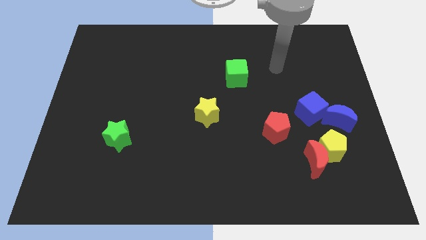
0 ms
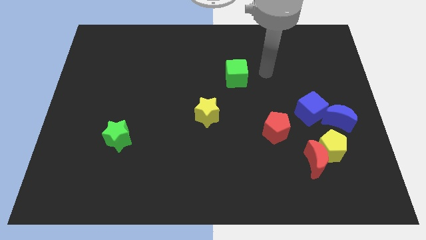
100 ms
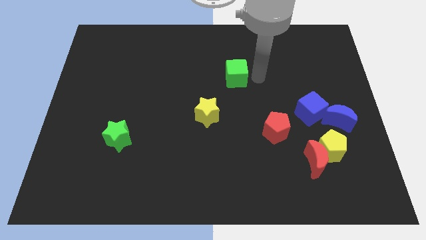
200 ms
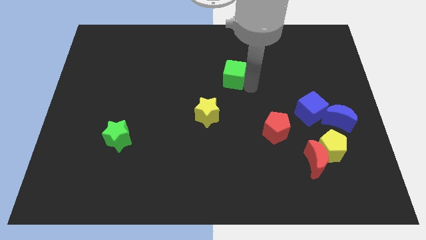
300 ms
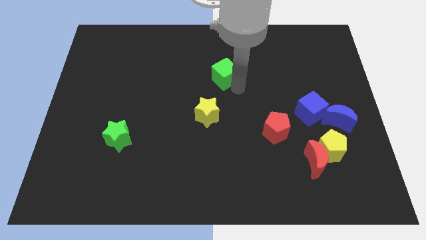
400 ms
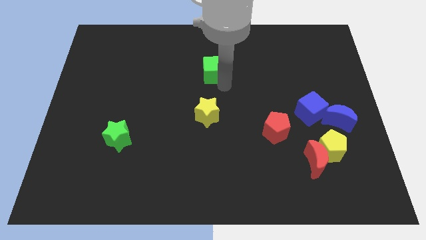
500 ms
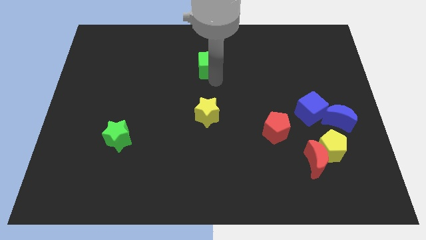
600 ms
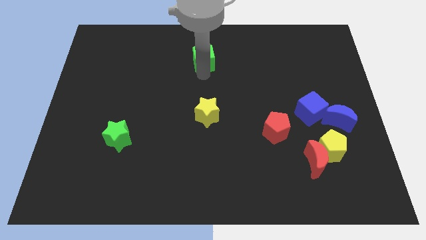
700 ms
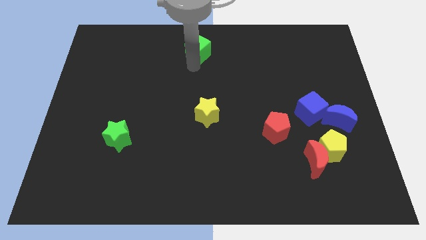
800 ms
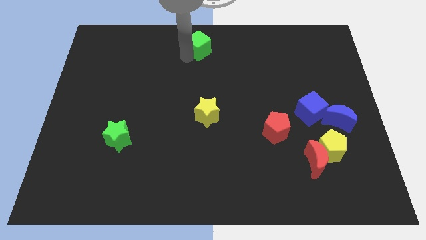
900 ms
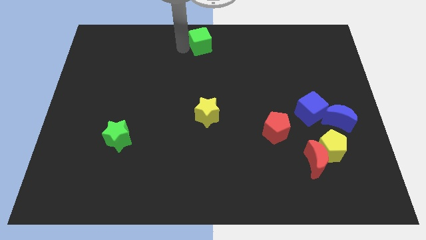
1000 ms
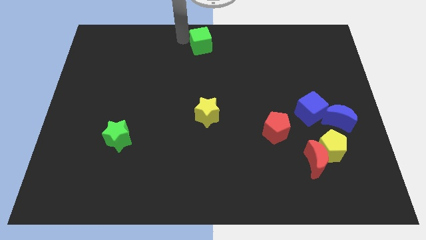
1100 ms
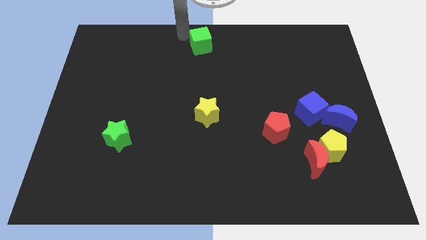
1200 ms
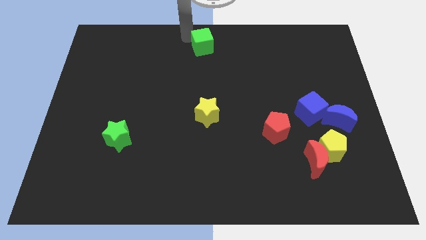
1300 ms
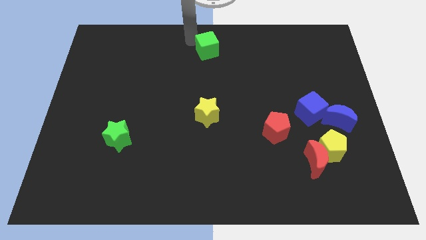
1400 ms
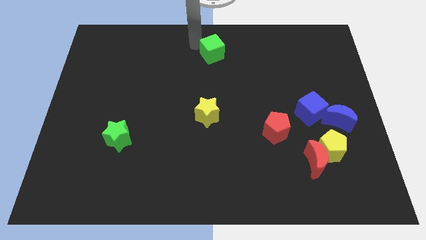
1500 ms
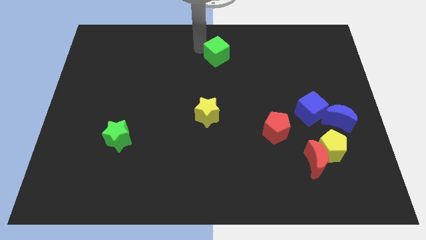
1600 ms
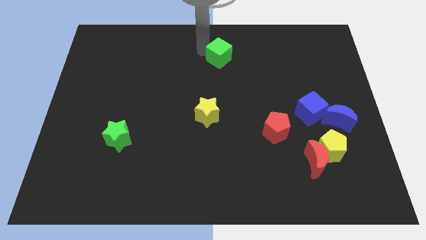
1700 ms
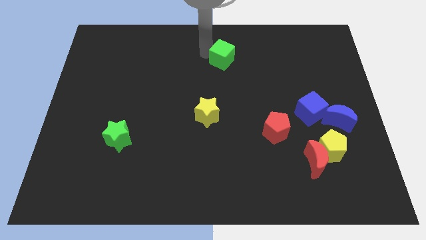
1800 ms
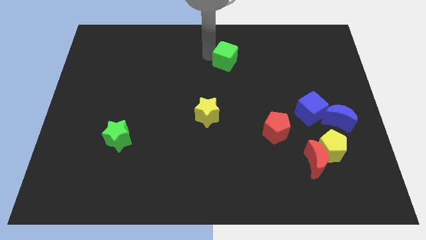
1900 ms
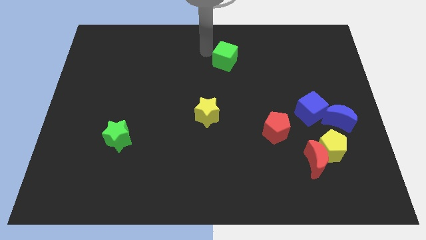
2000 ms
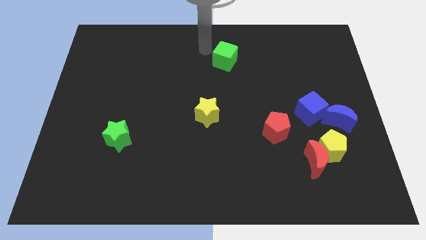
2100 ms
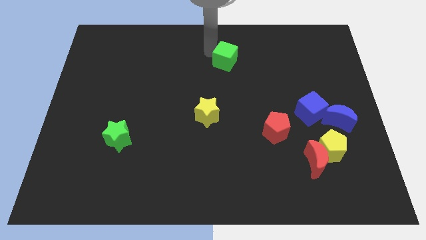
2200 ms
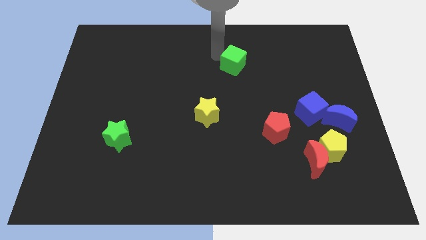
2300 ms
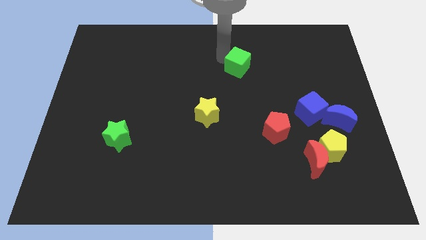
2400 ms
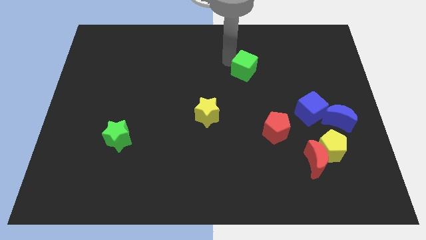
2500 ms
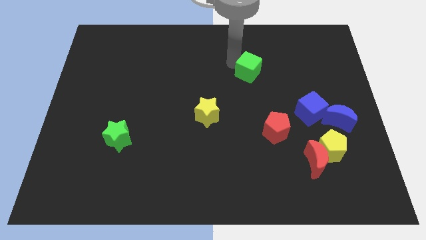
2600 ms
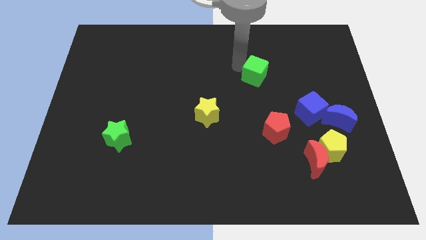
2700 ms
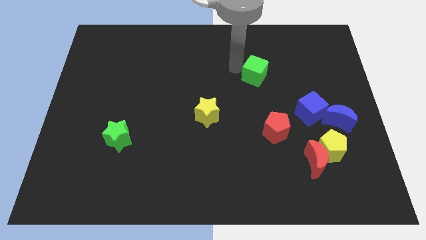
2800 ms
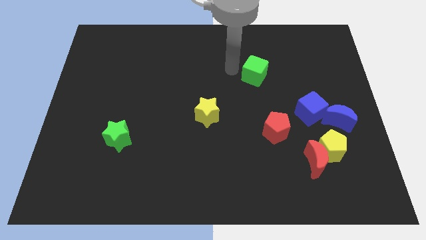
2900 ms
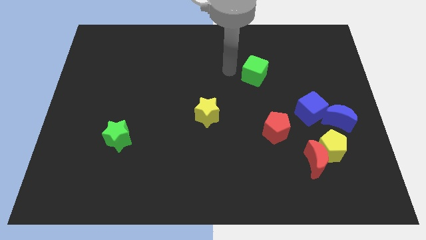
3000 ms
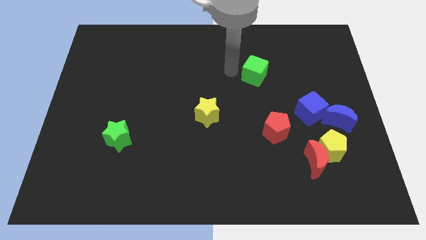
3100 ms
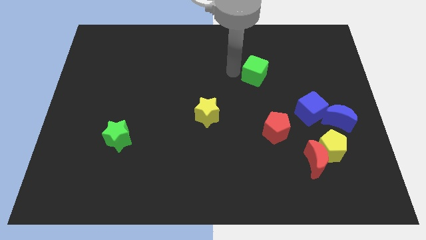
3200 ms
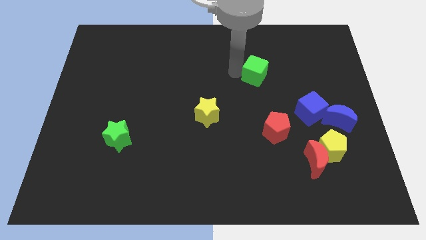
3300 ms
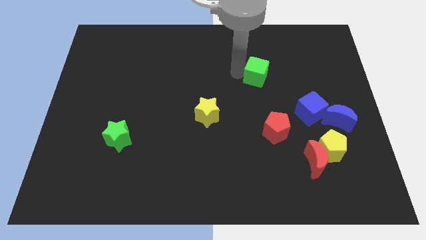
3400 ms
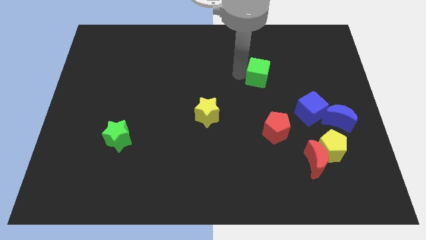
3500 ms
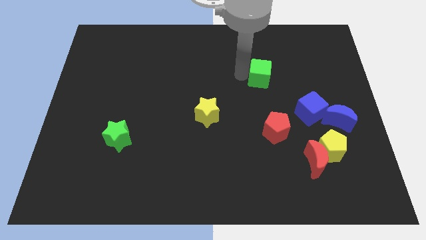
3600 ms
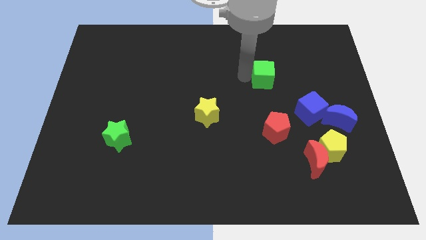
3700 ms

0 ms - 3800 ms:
slightly push the green cube to the right

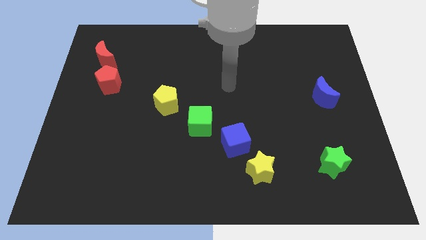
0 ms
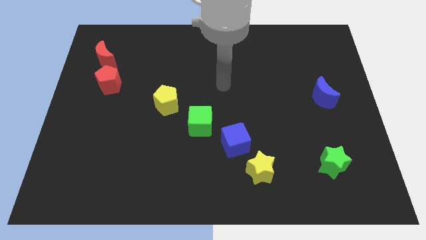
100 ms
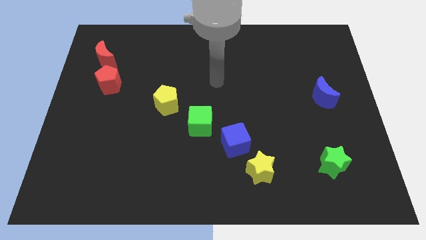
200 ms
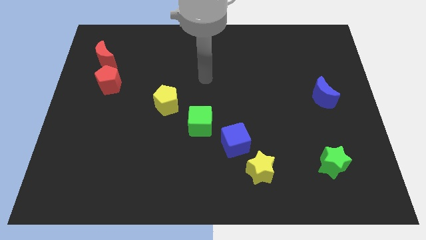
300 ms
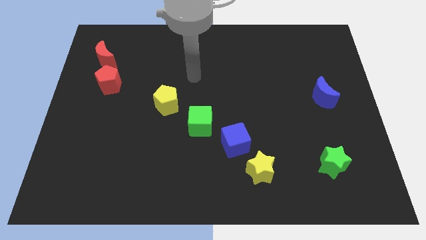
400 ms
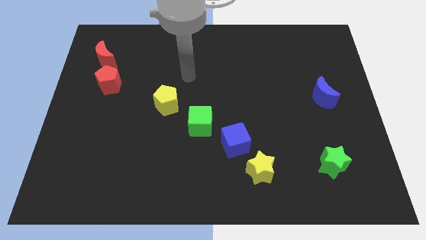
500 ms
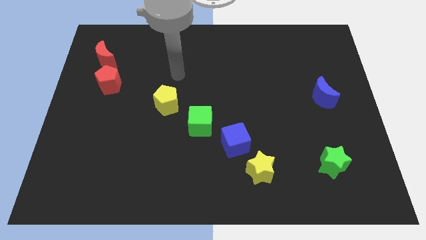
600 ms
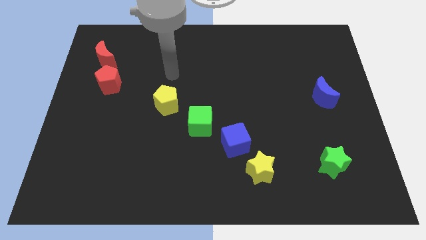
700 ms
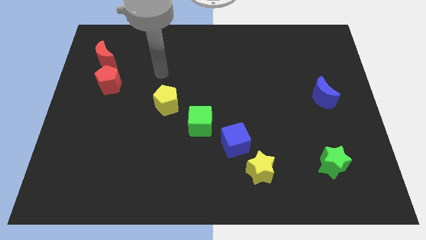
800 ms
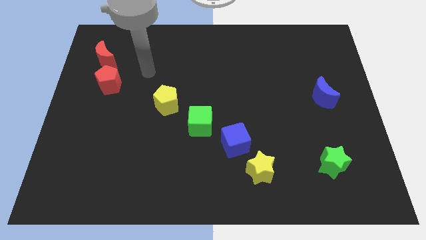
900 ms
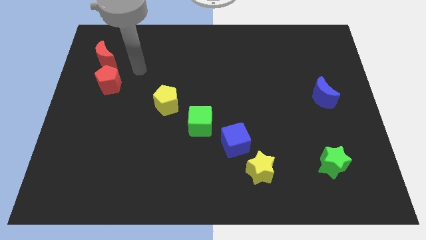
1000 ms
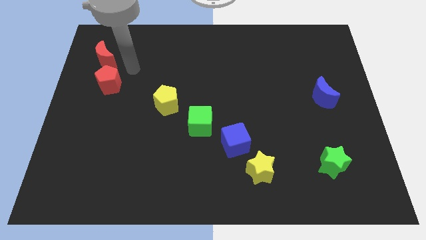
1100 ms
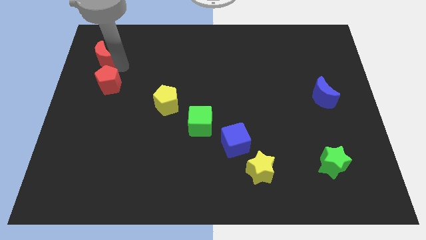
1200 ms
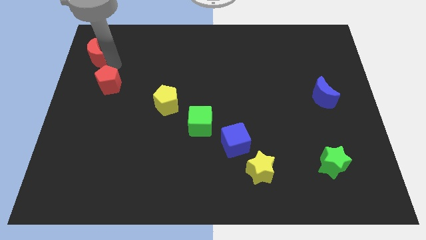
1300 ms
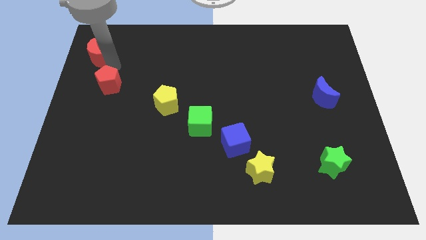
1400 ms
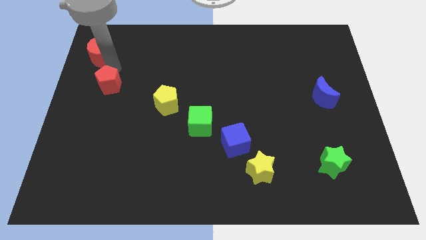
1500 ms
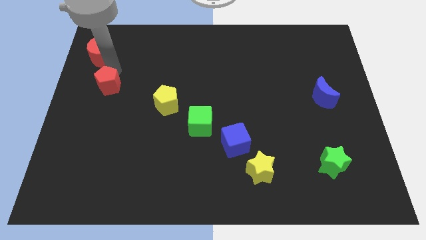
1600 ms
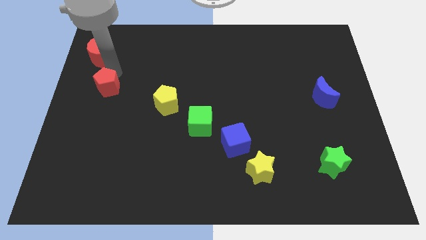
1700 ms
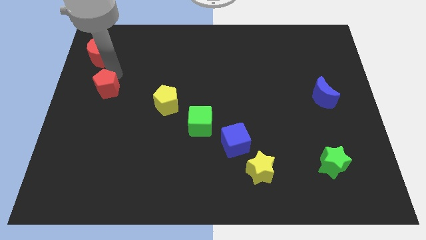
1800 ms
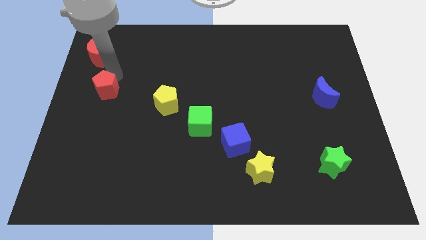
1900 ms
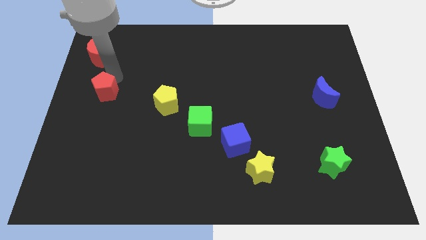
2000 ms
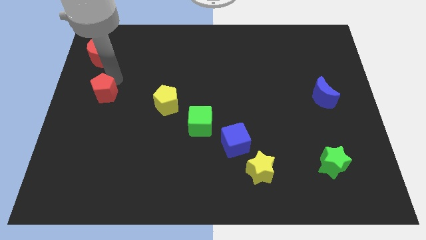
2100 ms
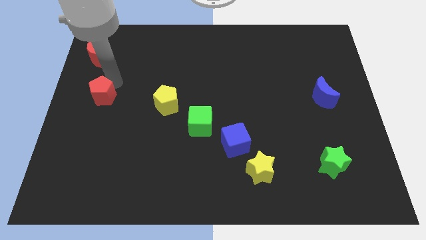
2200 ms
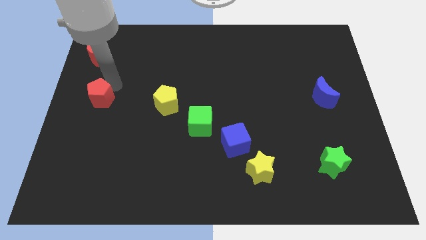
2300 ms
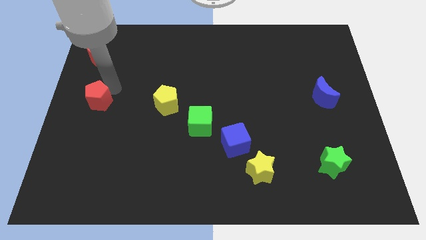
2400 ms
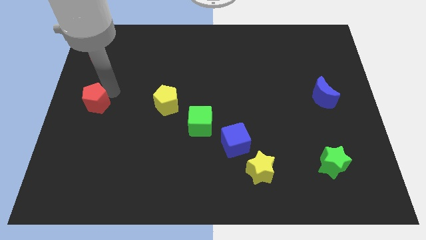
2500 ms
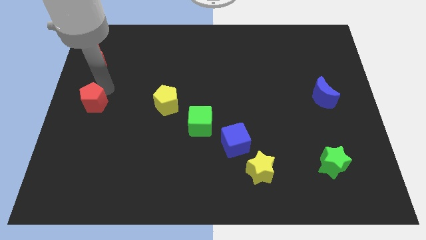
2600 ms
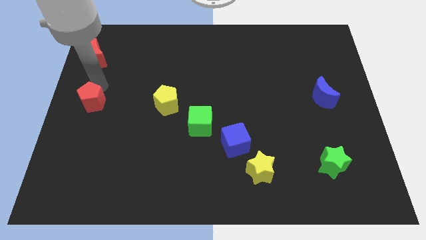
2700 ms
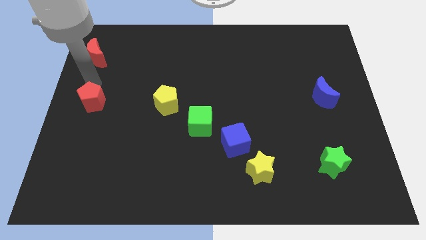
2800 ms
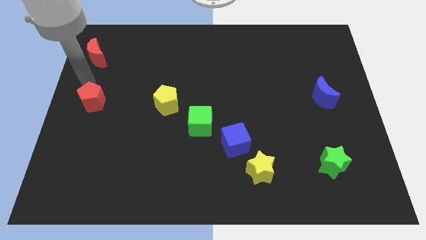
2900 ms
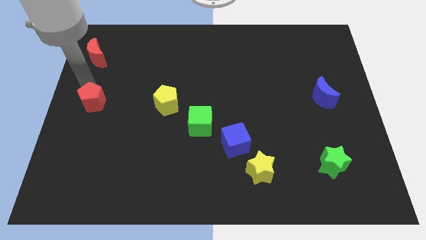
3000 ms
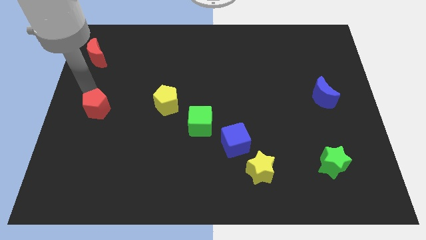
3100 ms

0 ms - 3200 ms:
push the red pentagon downwards somewhat

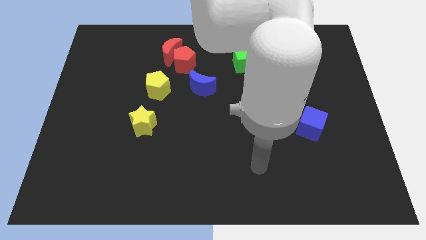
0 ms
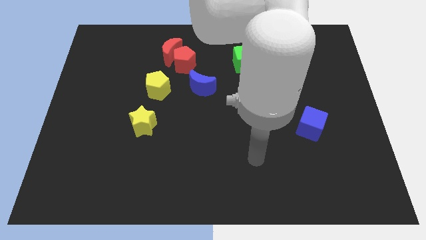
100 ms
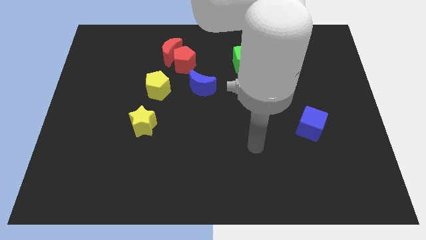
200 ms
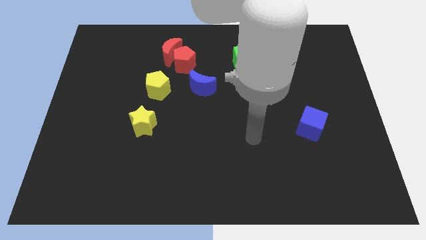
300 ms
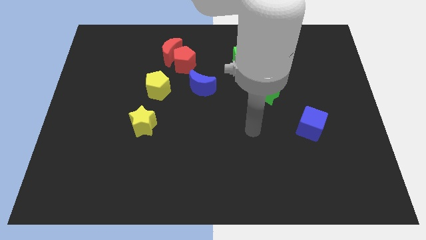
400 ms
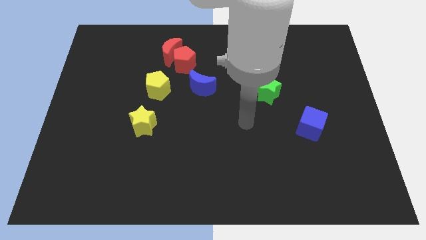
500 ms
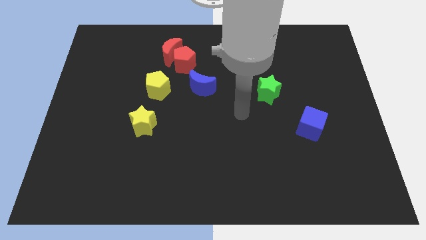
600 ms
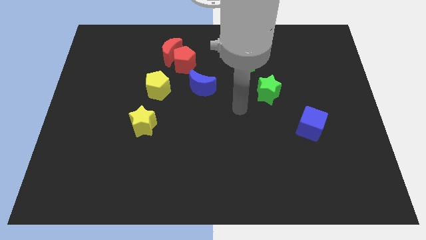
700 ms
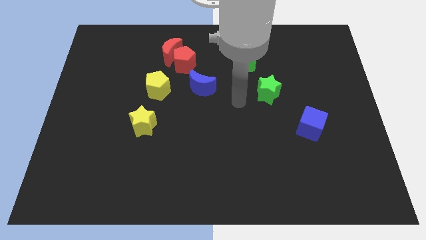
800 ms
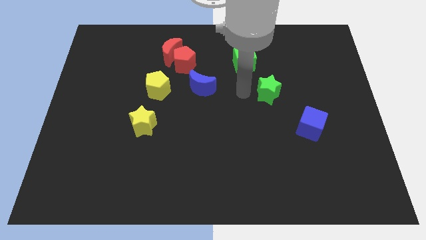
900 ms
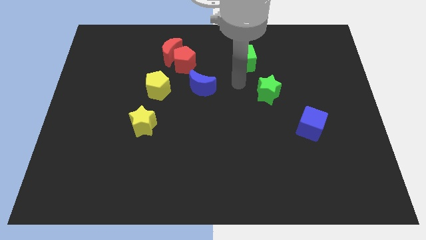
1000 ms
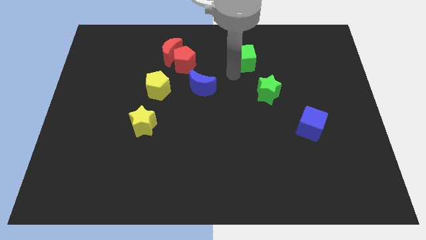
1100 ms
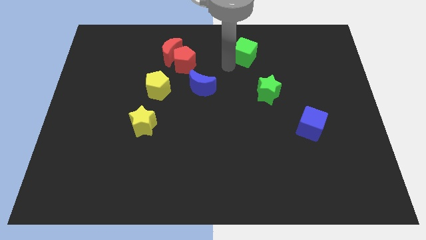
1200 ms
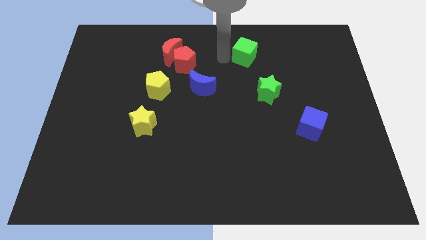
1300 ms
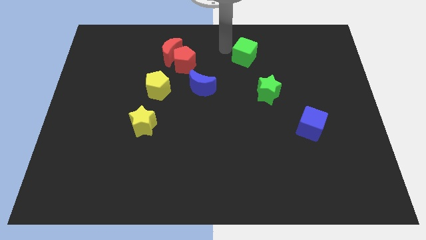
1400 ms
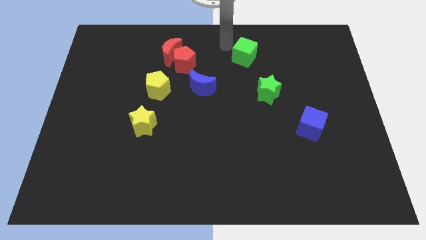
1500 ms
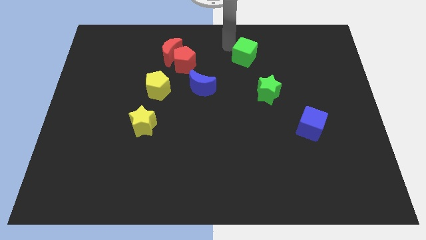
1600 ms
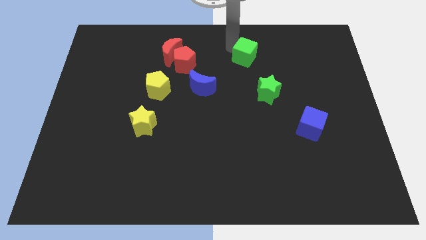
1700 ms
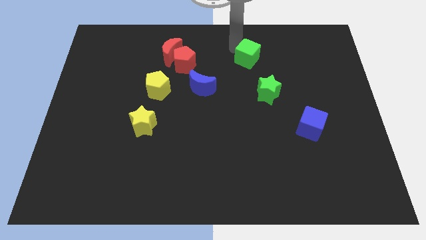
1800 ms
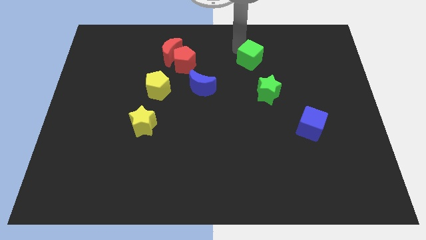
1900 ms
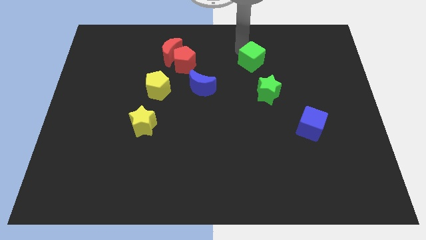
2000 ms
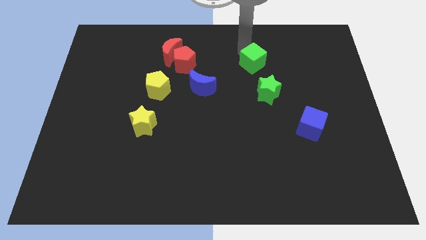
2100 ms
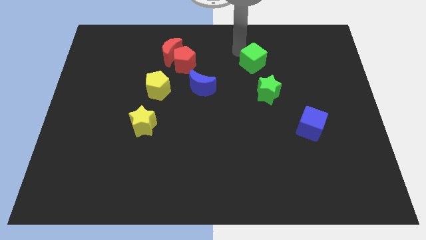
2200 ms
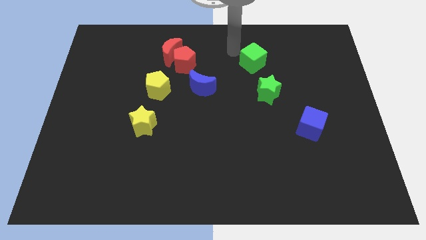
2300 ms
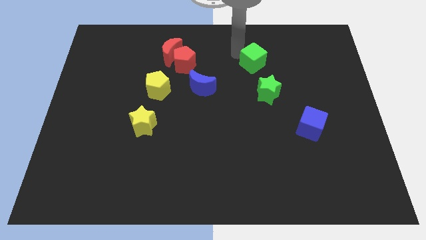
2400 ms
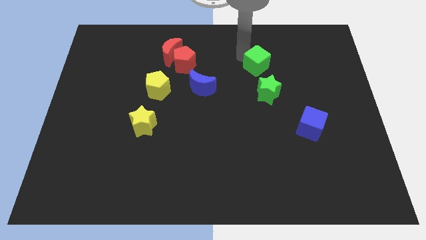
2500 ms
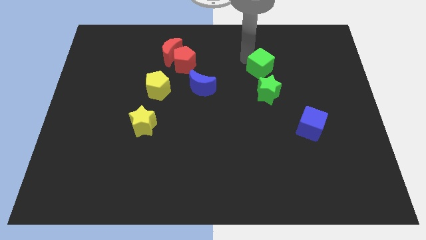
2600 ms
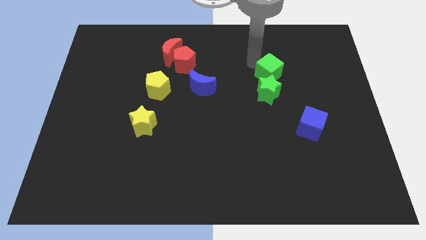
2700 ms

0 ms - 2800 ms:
move the green cube somewhat downwards and to the right
